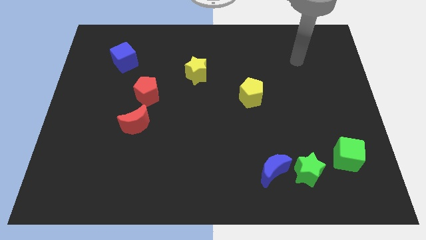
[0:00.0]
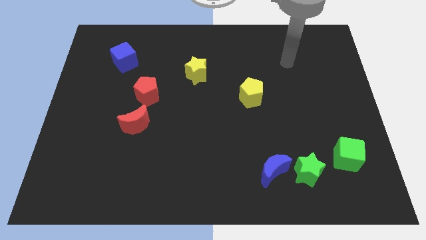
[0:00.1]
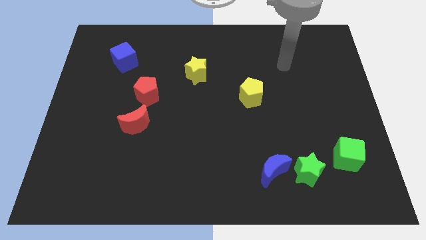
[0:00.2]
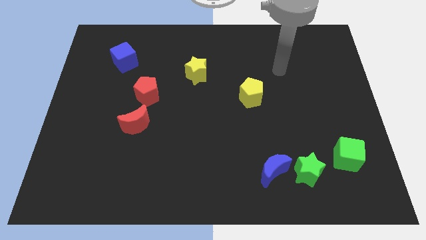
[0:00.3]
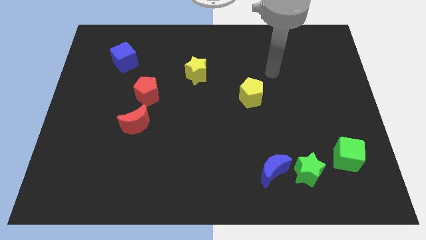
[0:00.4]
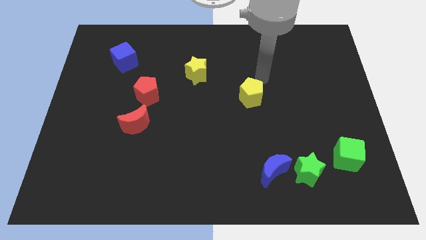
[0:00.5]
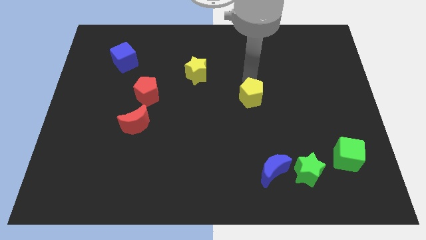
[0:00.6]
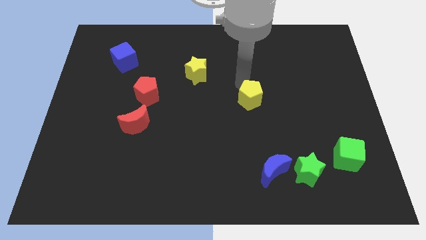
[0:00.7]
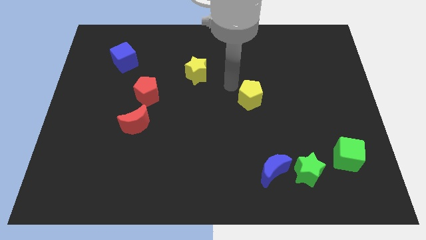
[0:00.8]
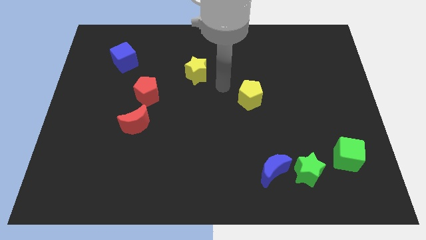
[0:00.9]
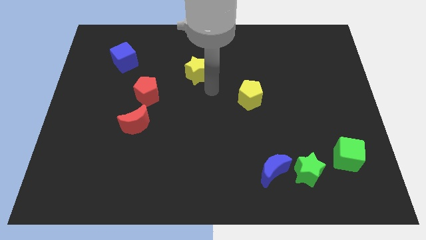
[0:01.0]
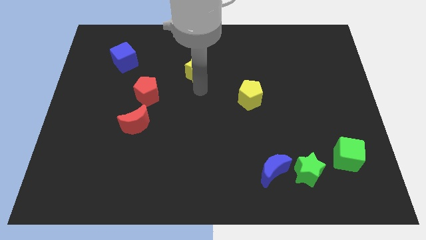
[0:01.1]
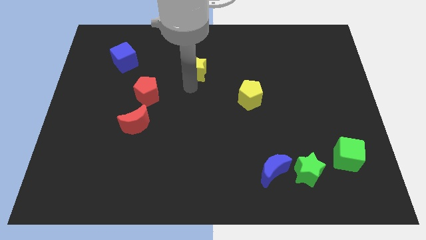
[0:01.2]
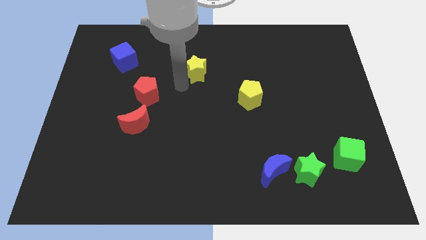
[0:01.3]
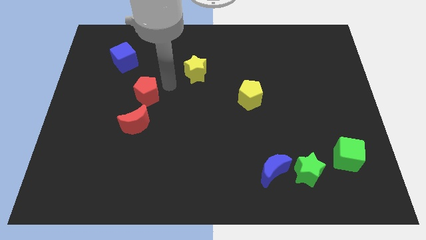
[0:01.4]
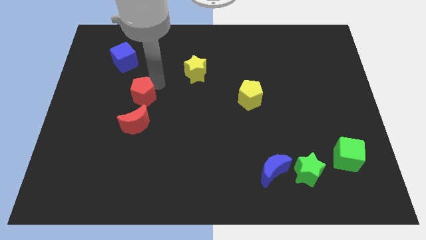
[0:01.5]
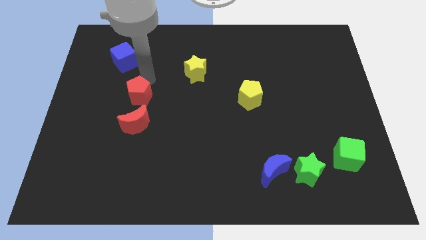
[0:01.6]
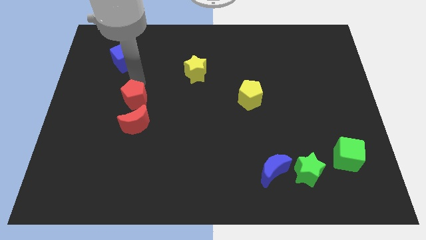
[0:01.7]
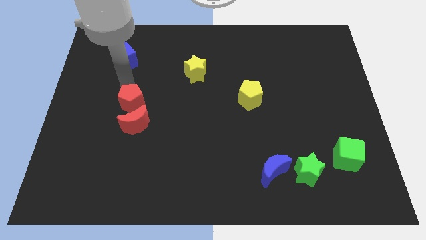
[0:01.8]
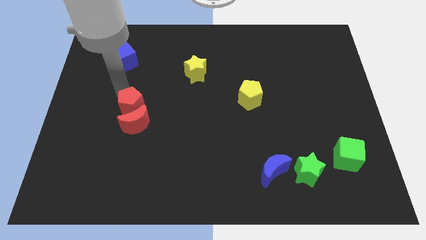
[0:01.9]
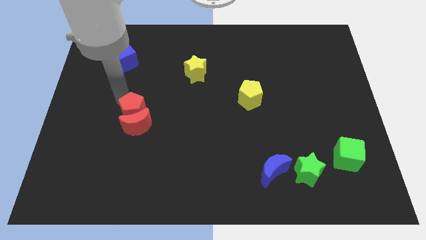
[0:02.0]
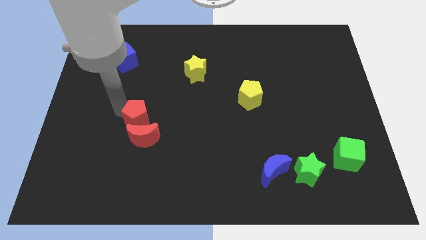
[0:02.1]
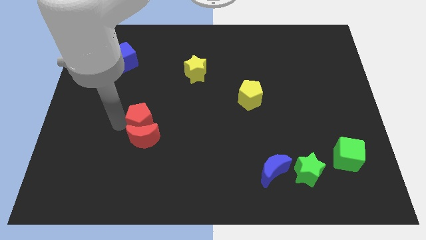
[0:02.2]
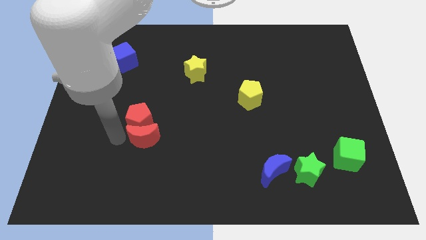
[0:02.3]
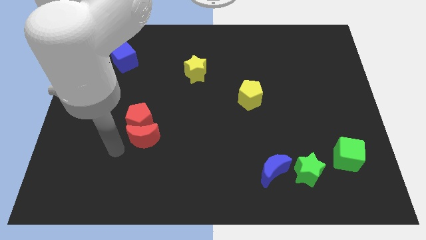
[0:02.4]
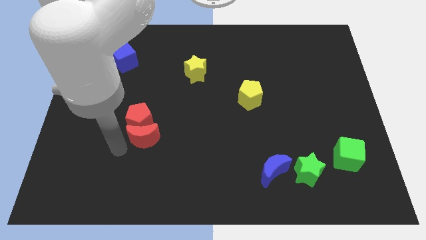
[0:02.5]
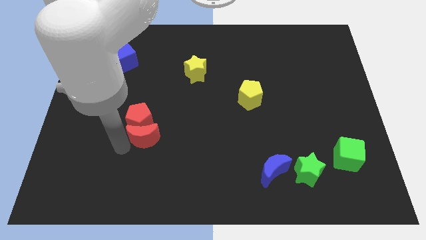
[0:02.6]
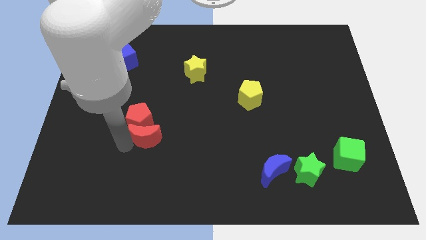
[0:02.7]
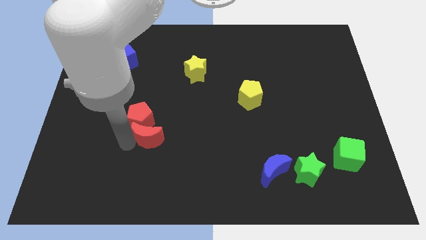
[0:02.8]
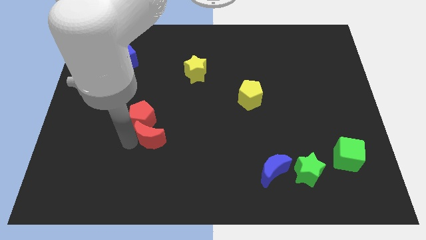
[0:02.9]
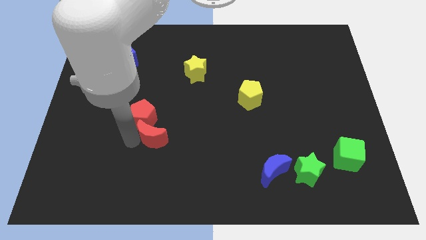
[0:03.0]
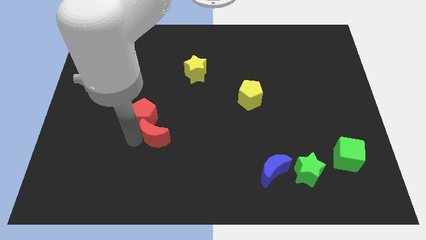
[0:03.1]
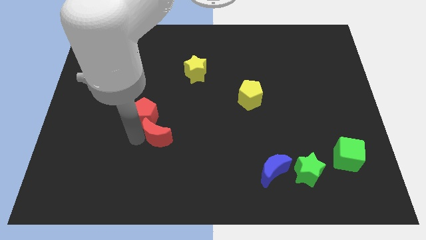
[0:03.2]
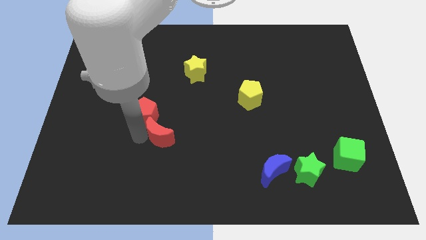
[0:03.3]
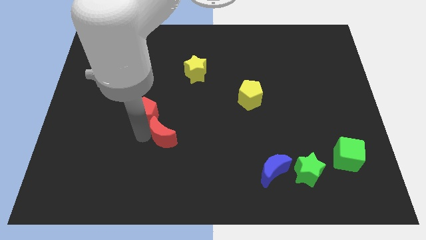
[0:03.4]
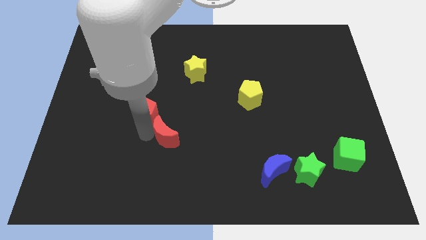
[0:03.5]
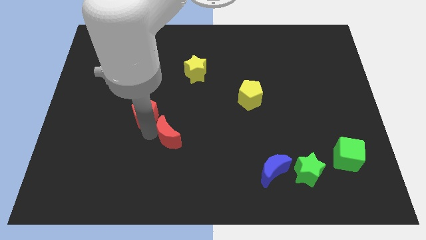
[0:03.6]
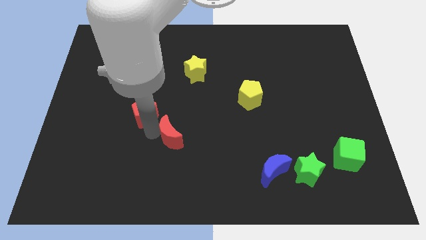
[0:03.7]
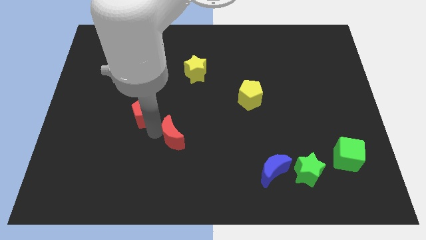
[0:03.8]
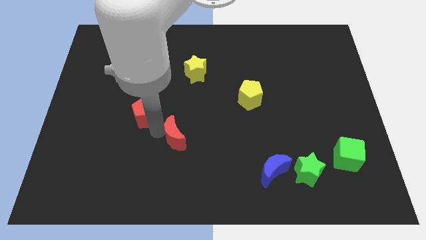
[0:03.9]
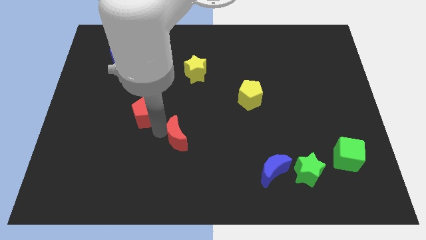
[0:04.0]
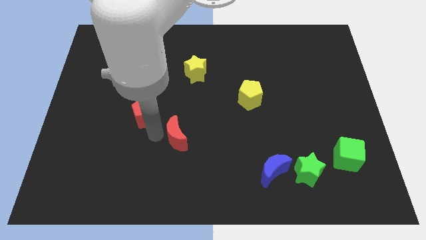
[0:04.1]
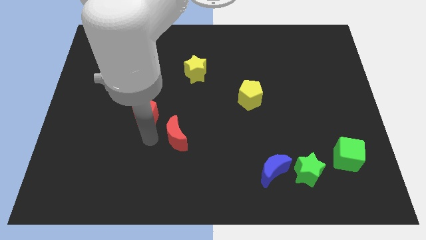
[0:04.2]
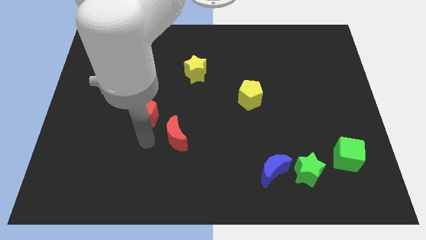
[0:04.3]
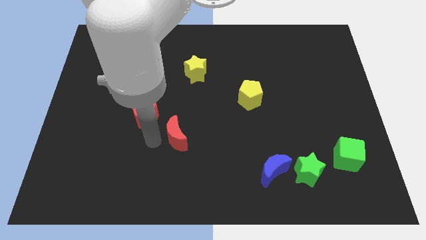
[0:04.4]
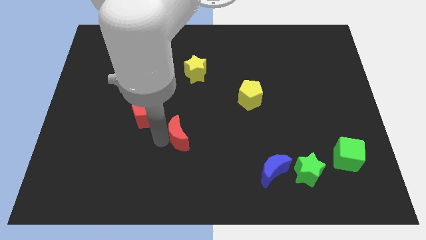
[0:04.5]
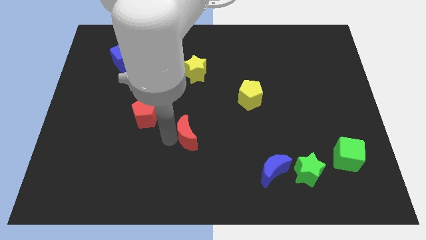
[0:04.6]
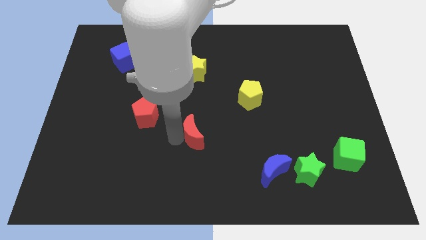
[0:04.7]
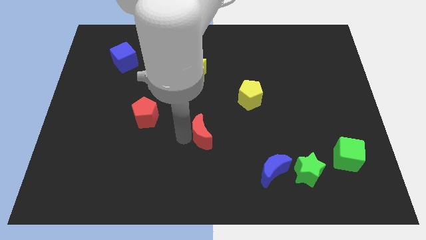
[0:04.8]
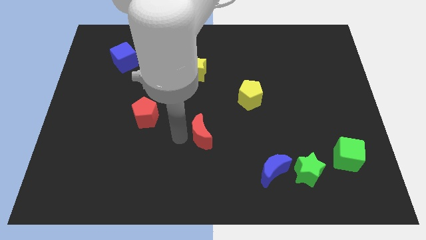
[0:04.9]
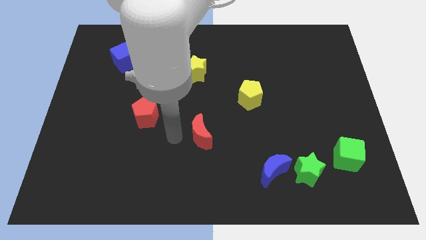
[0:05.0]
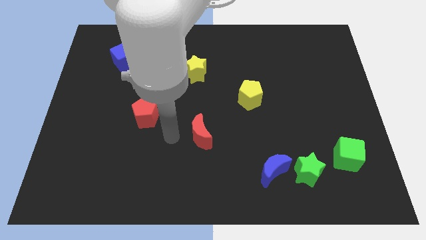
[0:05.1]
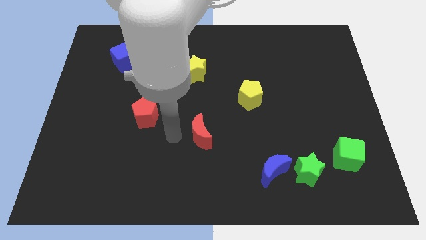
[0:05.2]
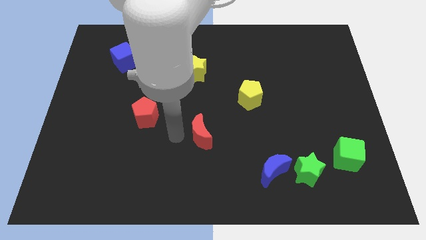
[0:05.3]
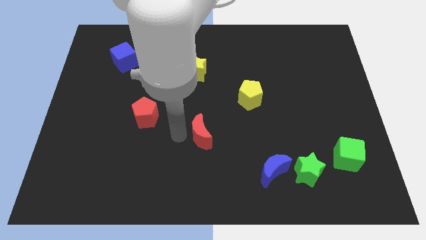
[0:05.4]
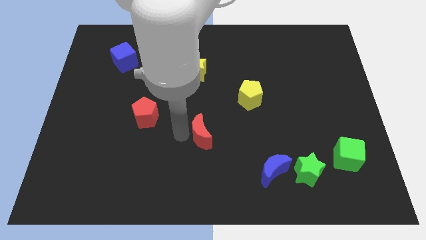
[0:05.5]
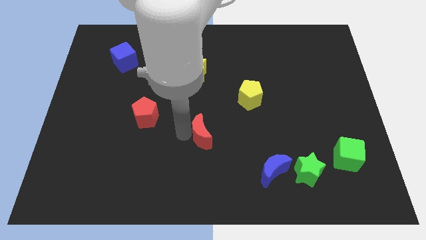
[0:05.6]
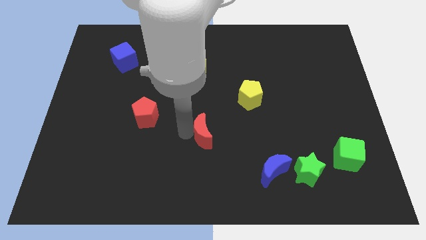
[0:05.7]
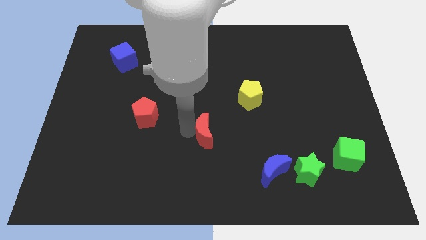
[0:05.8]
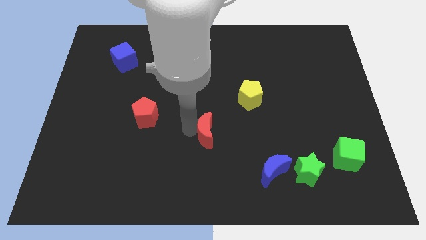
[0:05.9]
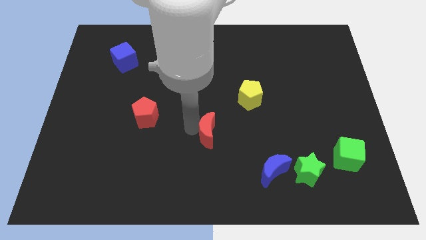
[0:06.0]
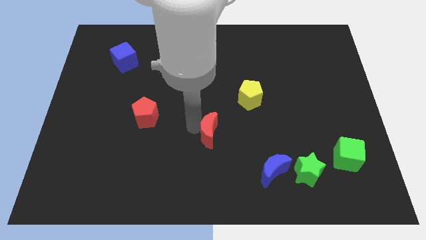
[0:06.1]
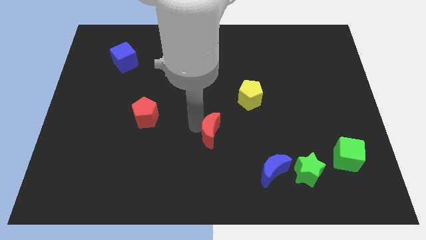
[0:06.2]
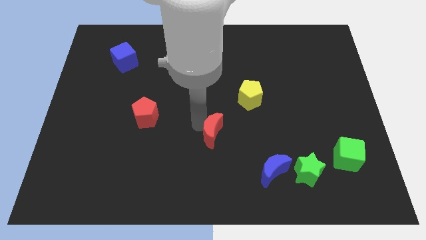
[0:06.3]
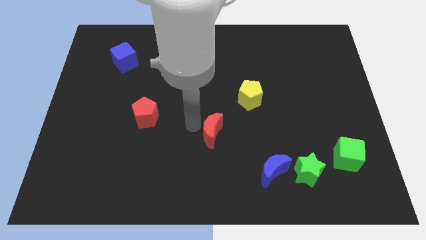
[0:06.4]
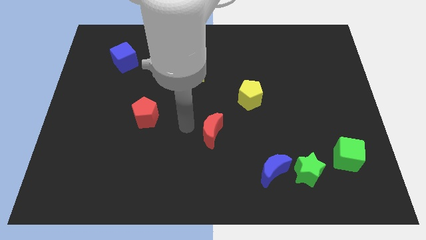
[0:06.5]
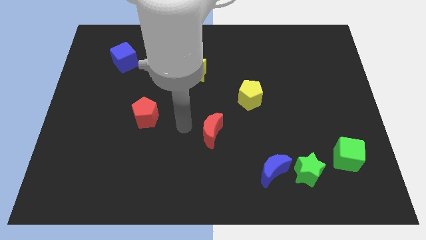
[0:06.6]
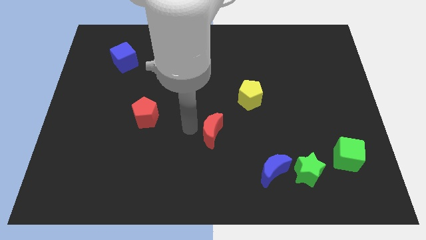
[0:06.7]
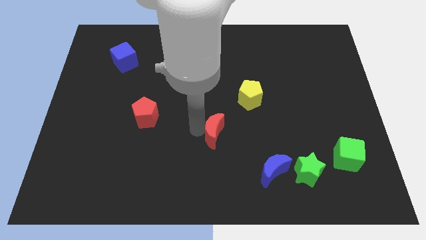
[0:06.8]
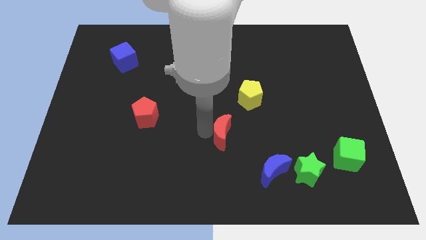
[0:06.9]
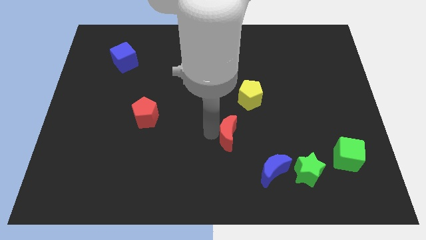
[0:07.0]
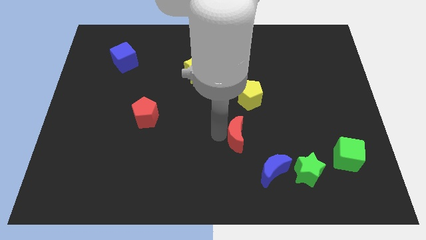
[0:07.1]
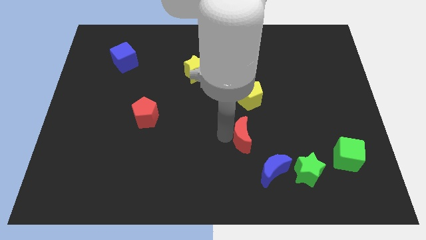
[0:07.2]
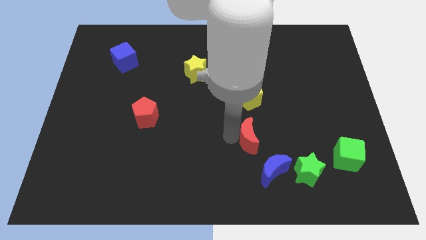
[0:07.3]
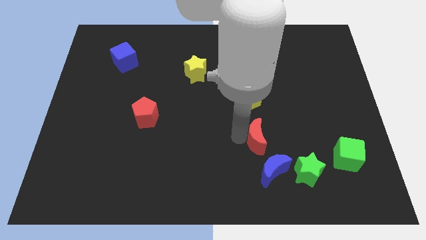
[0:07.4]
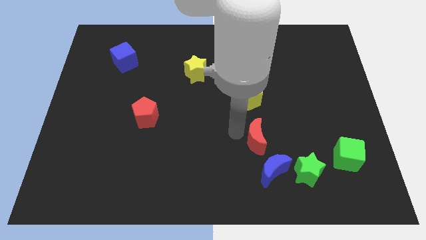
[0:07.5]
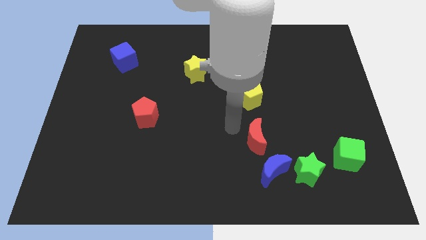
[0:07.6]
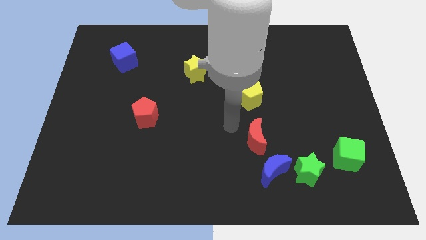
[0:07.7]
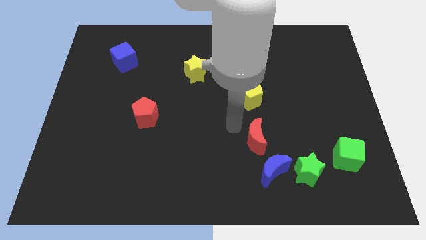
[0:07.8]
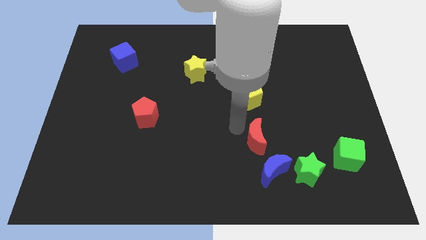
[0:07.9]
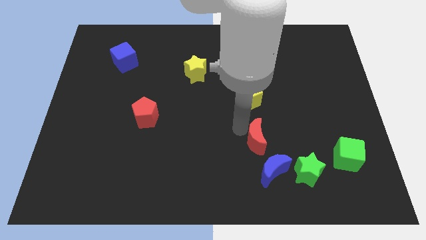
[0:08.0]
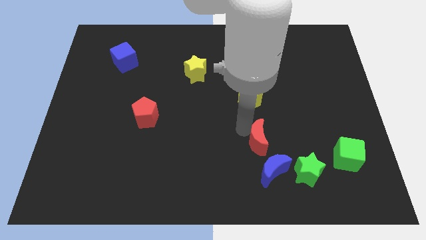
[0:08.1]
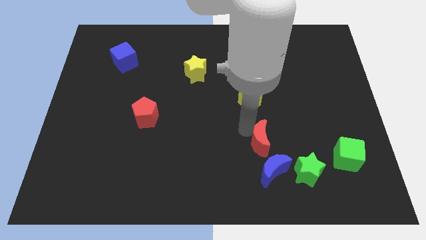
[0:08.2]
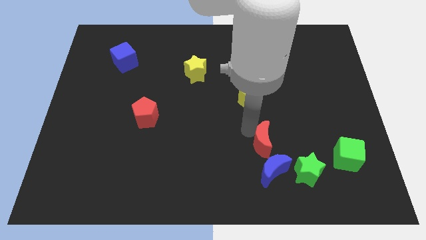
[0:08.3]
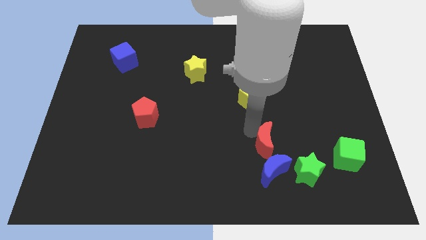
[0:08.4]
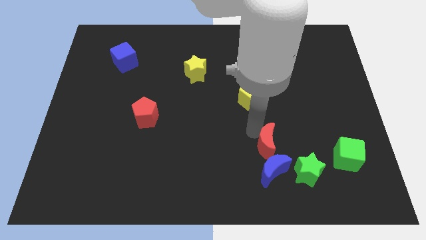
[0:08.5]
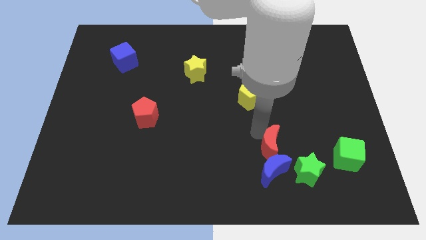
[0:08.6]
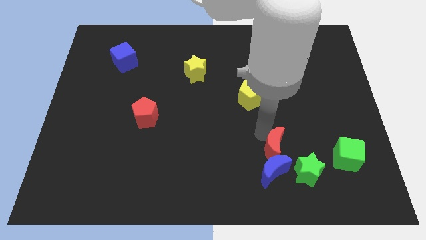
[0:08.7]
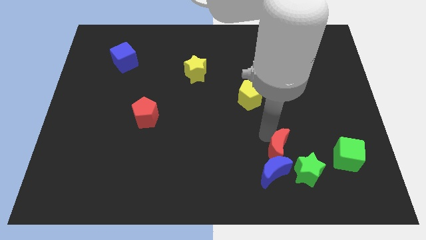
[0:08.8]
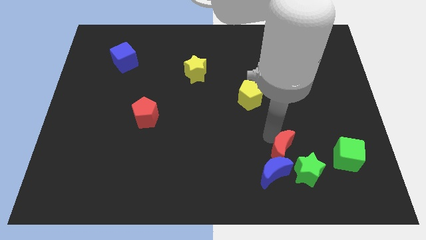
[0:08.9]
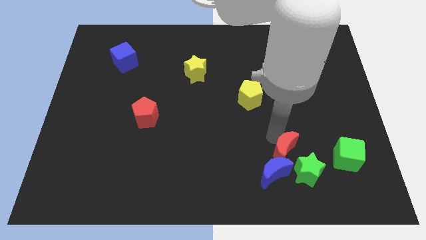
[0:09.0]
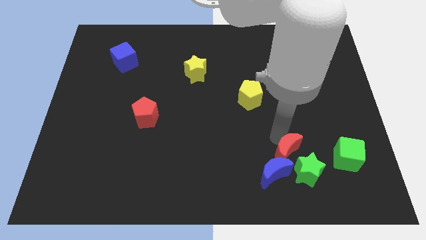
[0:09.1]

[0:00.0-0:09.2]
push the red moon towards the green star
